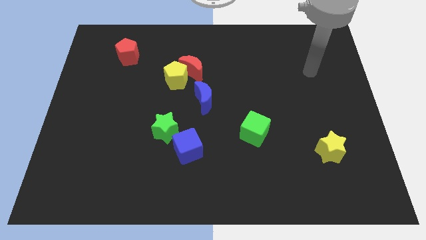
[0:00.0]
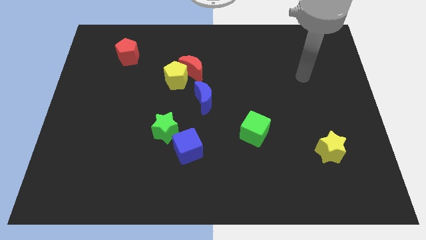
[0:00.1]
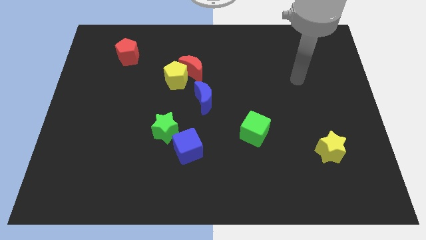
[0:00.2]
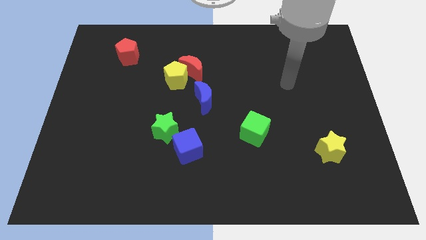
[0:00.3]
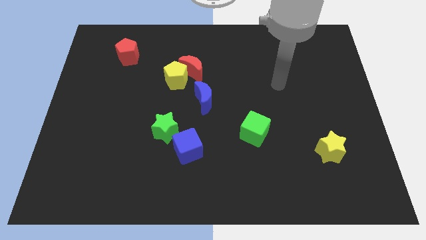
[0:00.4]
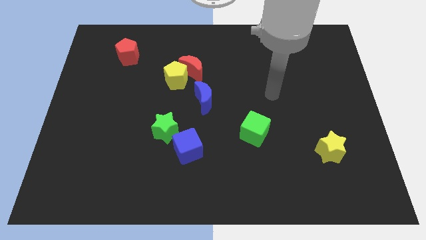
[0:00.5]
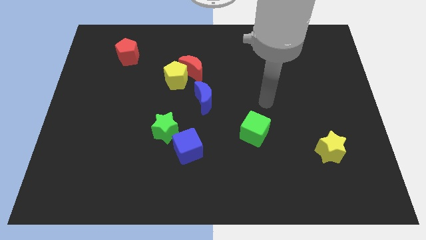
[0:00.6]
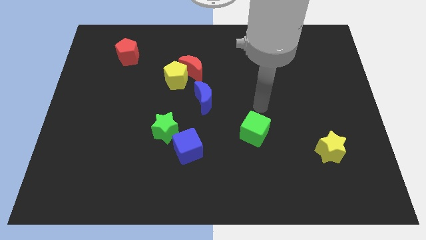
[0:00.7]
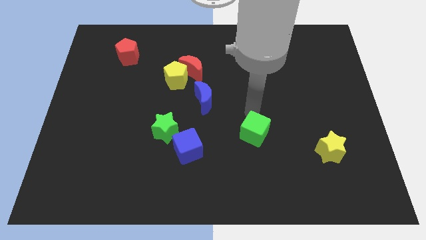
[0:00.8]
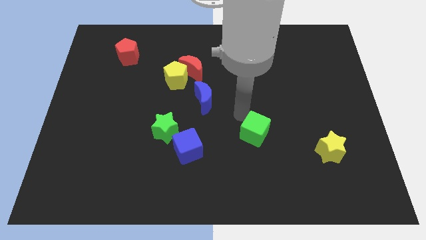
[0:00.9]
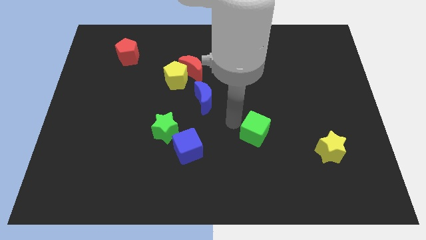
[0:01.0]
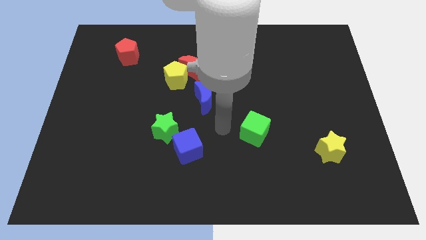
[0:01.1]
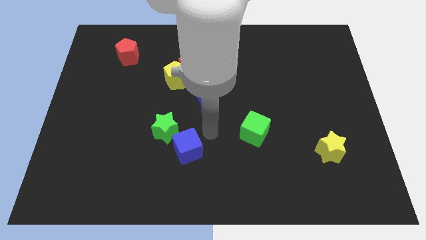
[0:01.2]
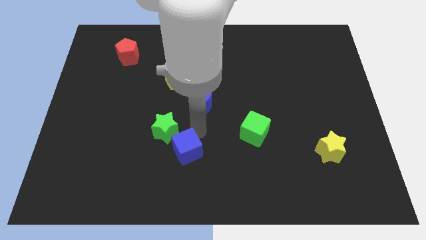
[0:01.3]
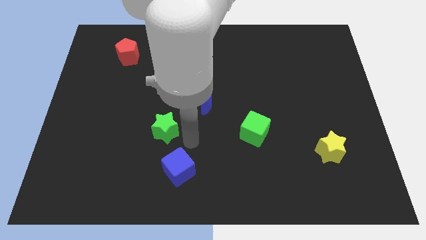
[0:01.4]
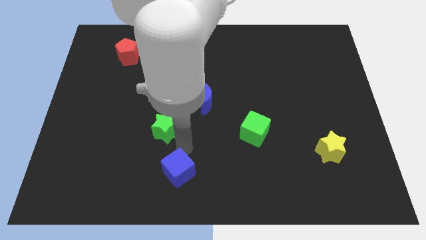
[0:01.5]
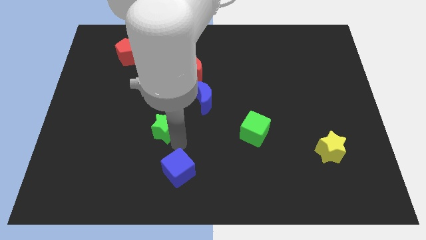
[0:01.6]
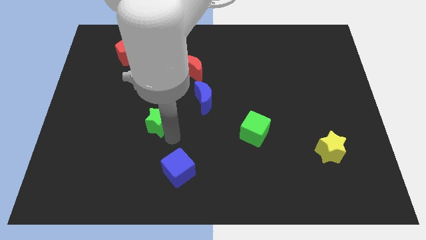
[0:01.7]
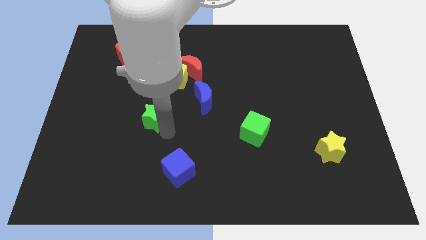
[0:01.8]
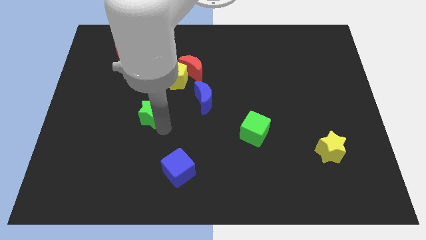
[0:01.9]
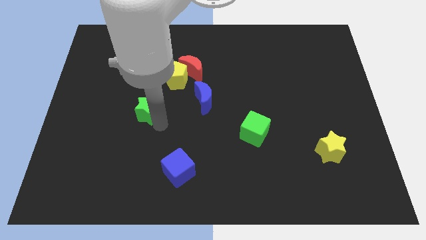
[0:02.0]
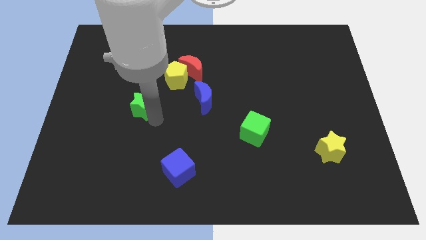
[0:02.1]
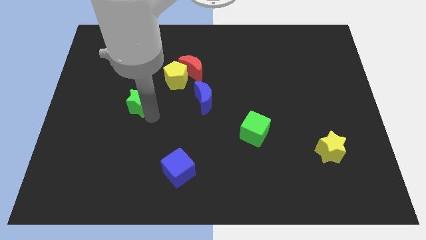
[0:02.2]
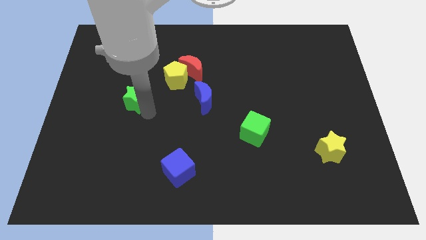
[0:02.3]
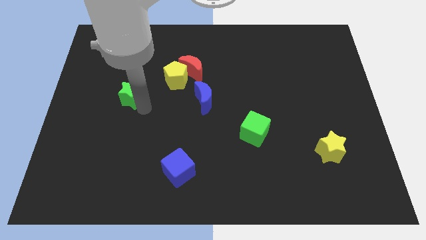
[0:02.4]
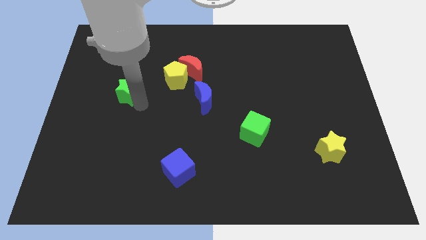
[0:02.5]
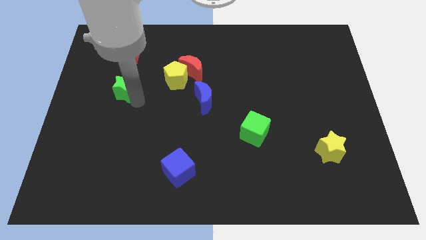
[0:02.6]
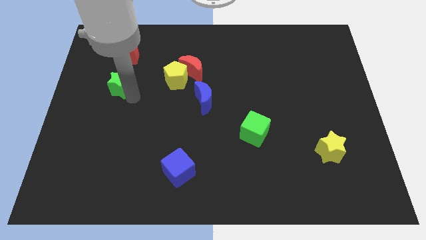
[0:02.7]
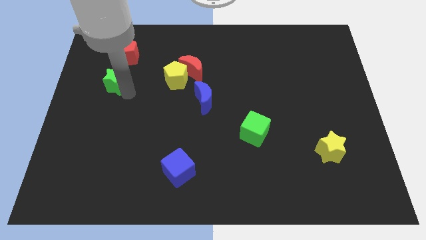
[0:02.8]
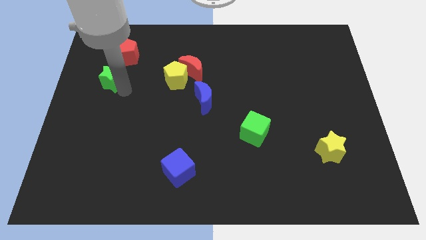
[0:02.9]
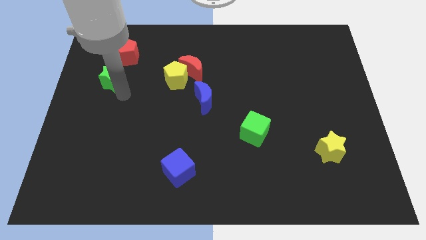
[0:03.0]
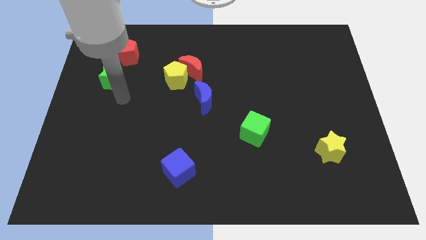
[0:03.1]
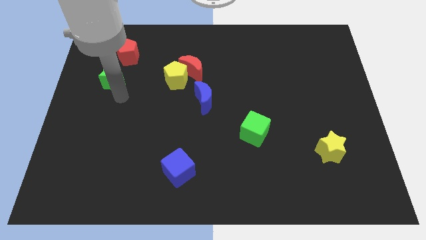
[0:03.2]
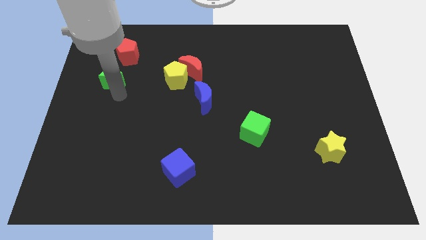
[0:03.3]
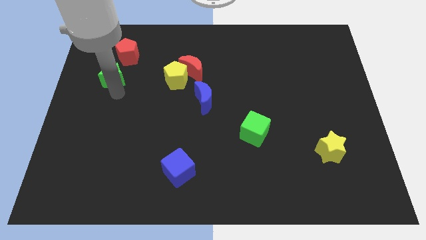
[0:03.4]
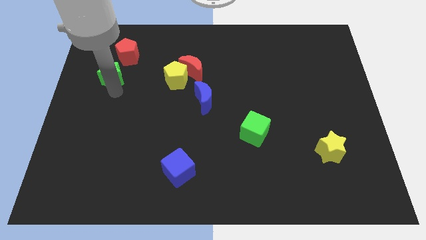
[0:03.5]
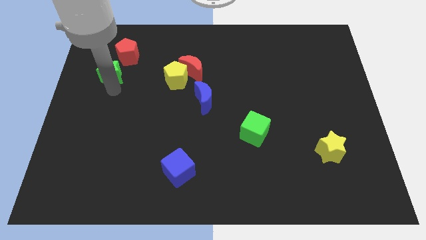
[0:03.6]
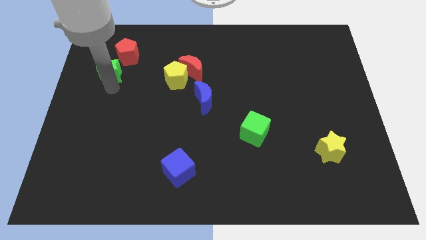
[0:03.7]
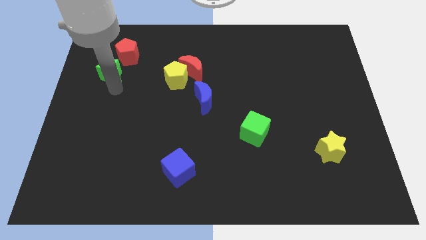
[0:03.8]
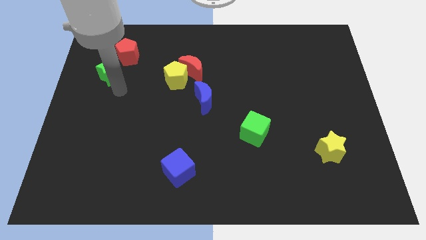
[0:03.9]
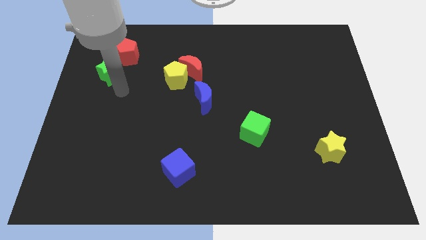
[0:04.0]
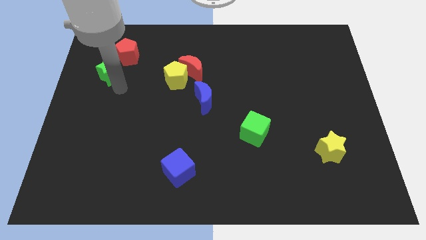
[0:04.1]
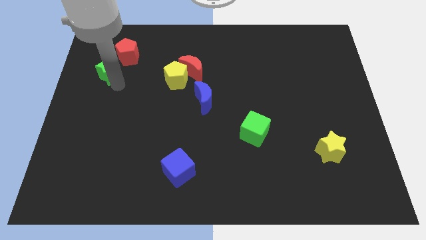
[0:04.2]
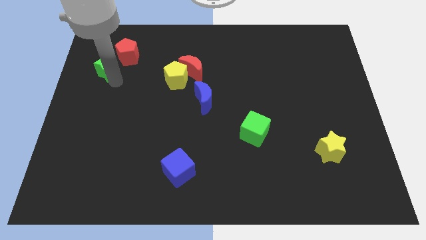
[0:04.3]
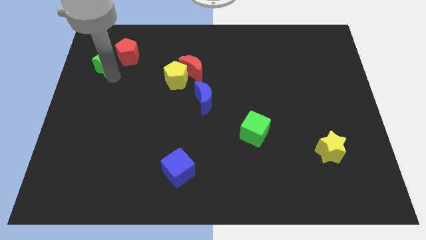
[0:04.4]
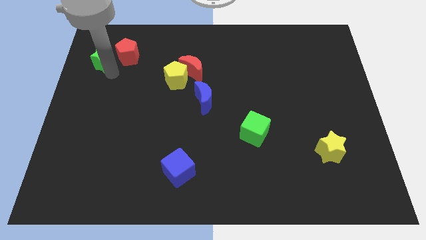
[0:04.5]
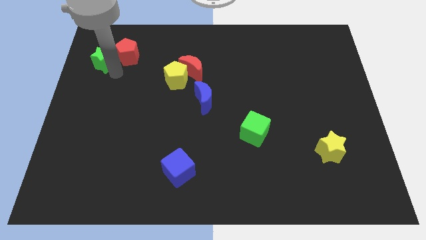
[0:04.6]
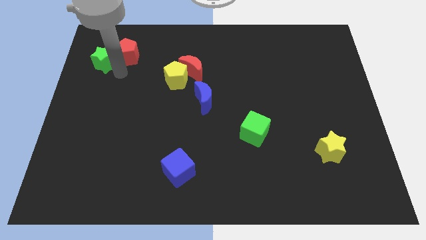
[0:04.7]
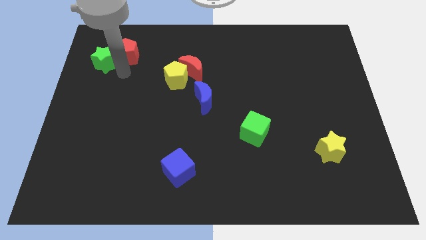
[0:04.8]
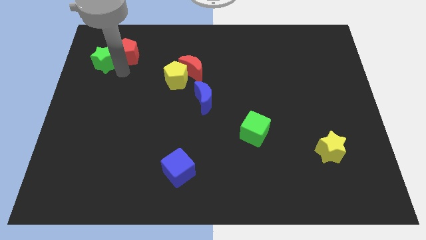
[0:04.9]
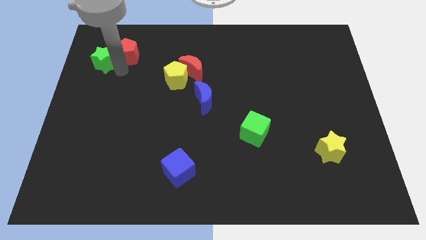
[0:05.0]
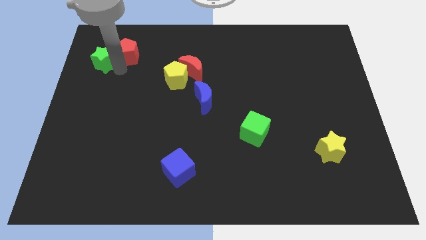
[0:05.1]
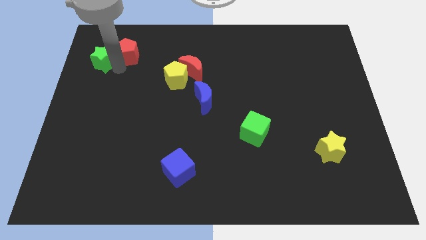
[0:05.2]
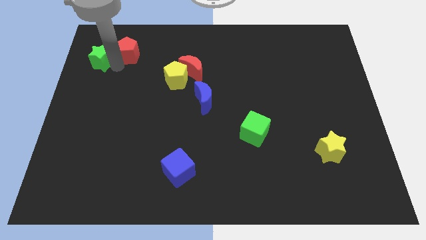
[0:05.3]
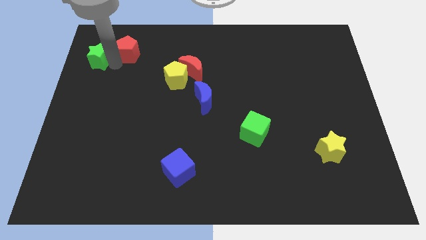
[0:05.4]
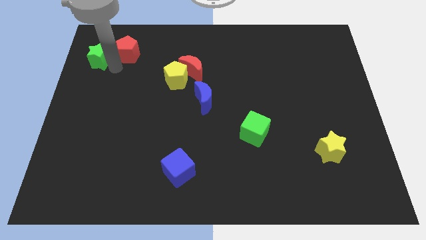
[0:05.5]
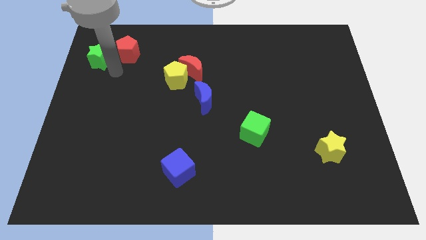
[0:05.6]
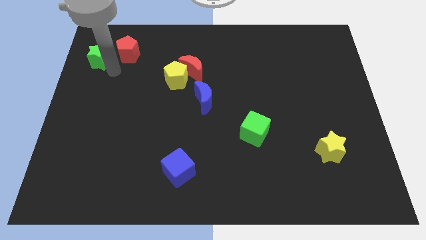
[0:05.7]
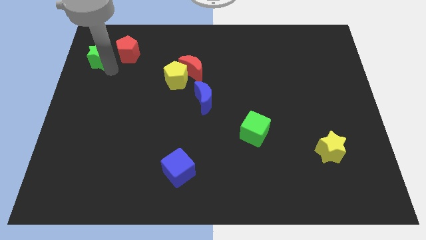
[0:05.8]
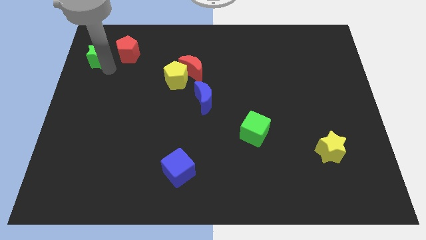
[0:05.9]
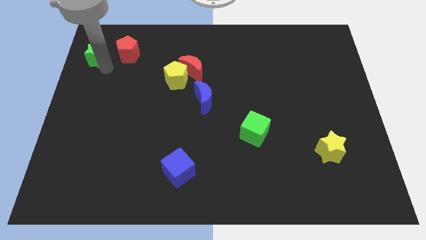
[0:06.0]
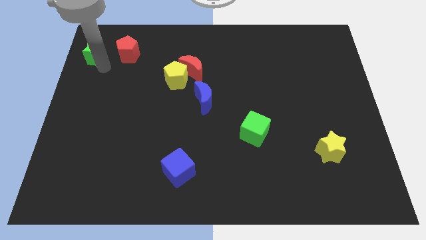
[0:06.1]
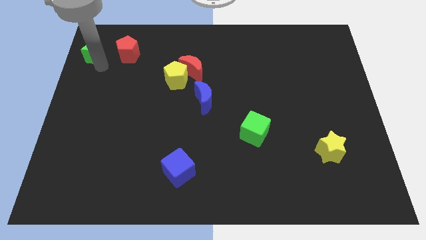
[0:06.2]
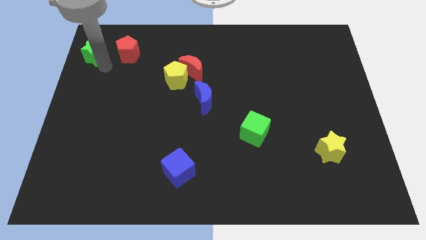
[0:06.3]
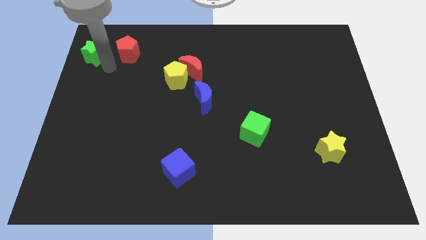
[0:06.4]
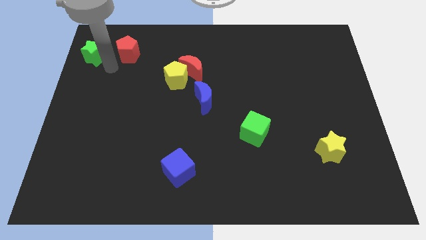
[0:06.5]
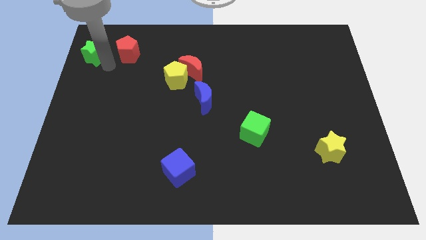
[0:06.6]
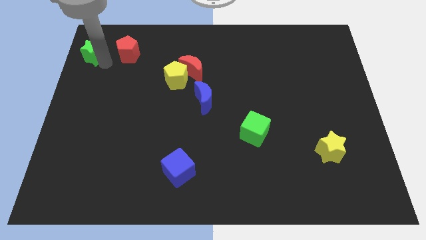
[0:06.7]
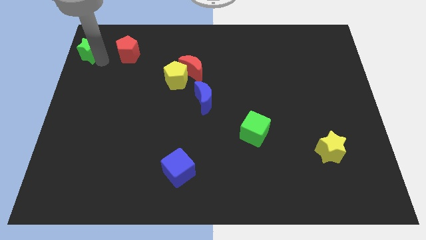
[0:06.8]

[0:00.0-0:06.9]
slide the green star to the top left corner

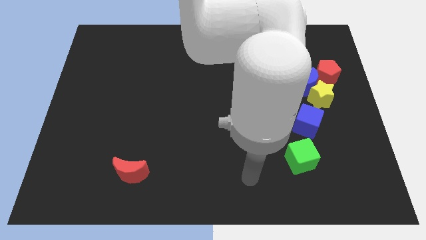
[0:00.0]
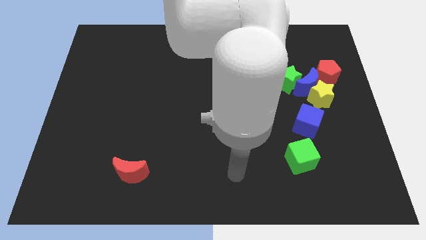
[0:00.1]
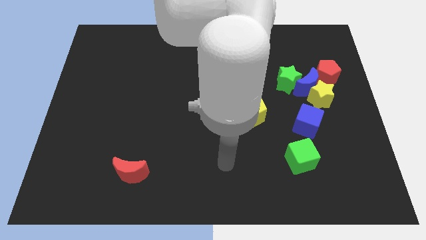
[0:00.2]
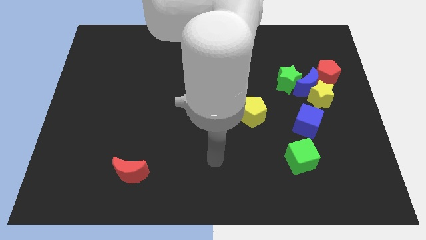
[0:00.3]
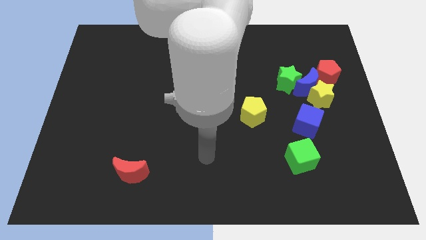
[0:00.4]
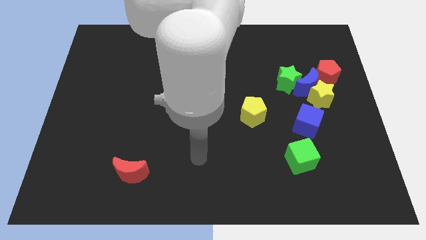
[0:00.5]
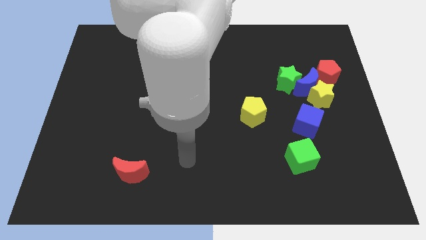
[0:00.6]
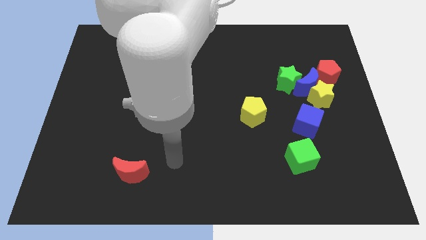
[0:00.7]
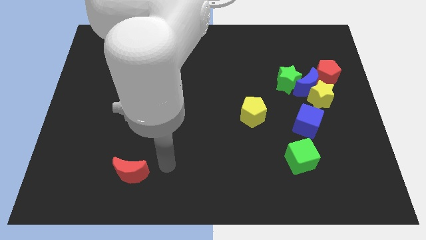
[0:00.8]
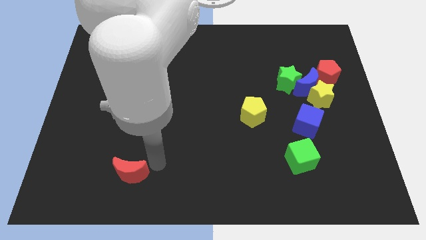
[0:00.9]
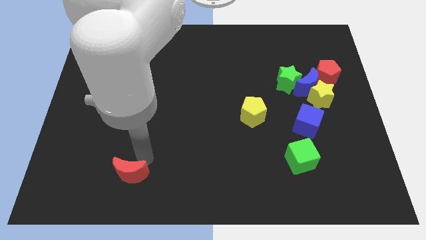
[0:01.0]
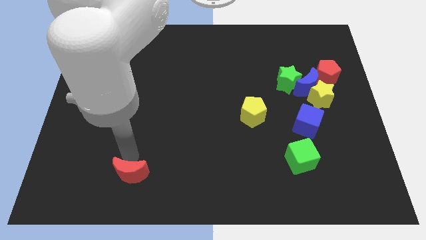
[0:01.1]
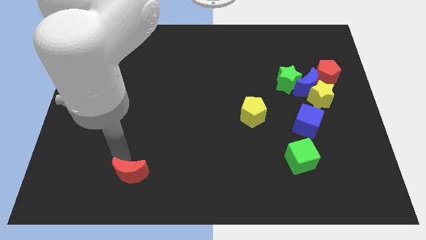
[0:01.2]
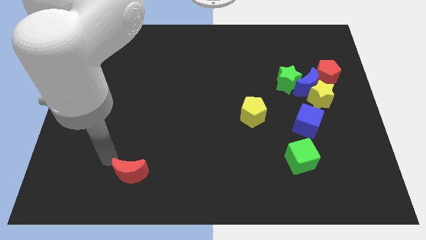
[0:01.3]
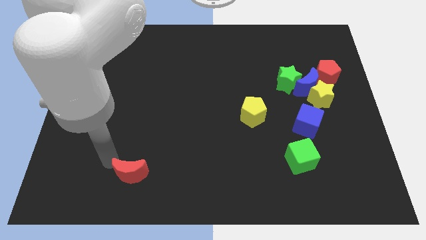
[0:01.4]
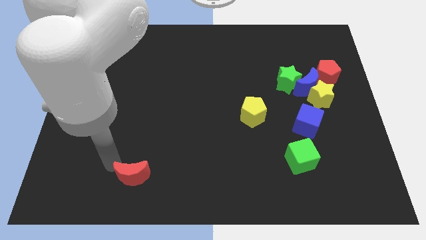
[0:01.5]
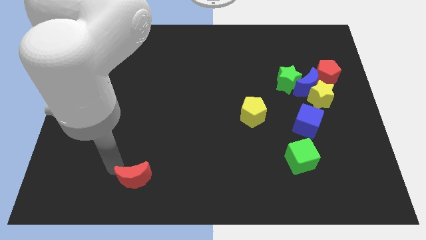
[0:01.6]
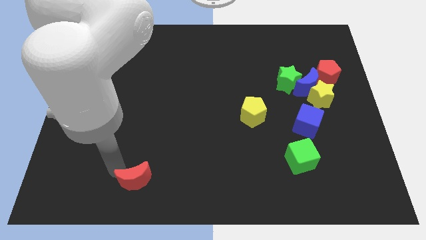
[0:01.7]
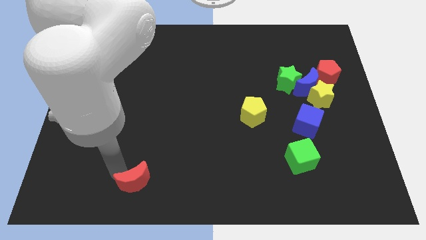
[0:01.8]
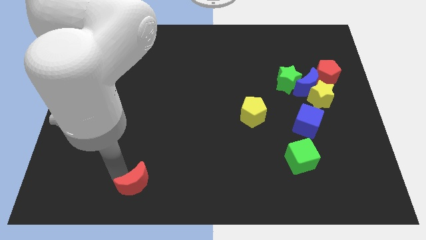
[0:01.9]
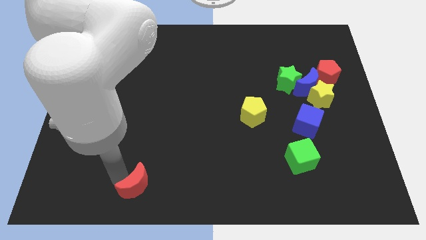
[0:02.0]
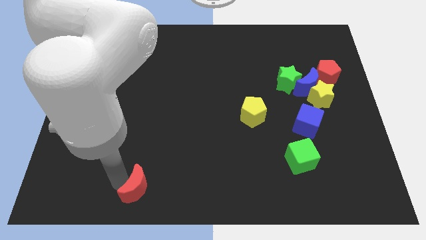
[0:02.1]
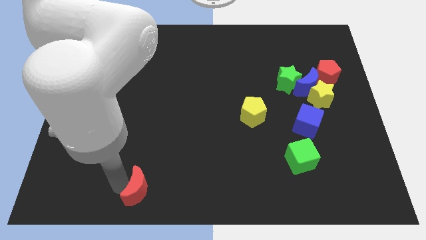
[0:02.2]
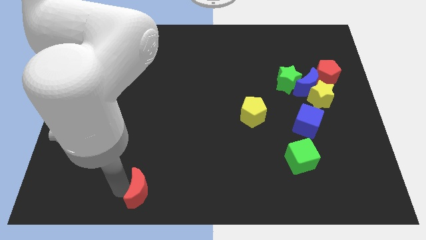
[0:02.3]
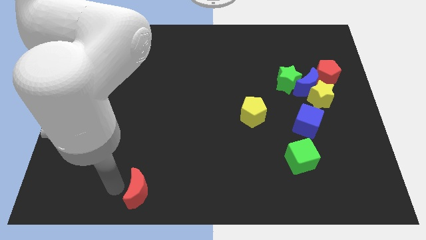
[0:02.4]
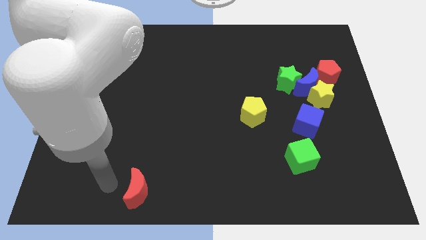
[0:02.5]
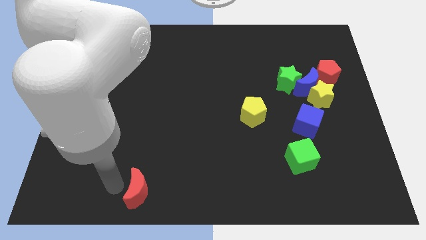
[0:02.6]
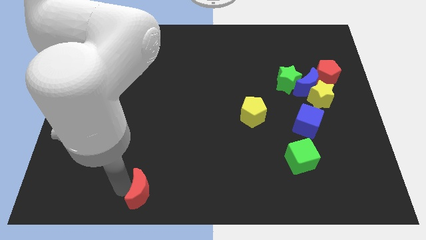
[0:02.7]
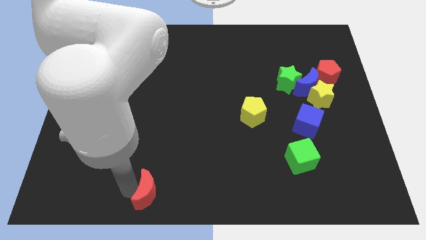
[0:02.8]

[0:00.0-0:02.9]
push the red moon to the bottom side
